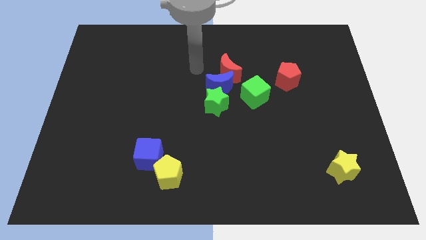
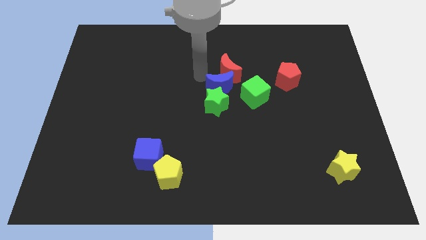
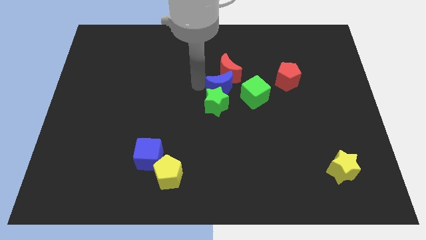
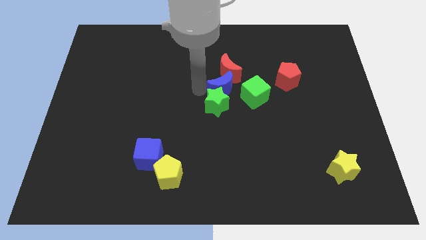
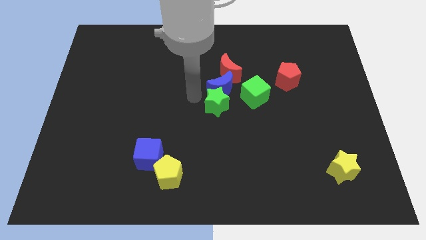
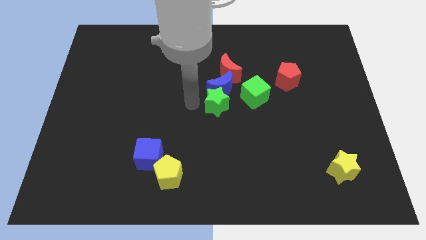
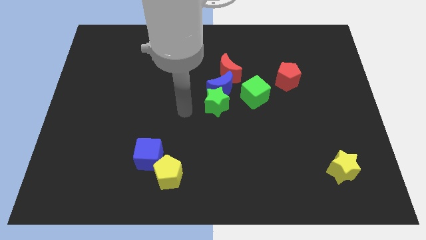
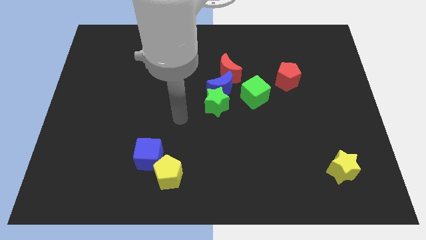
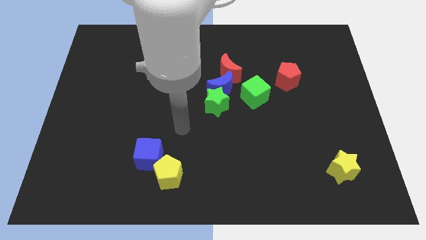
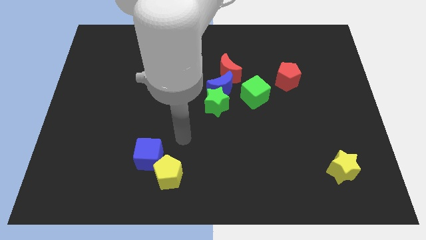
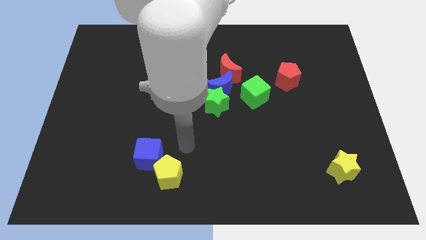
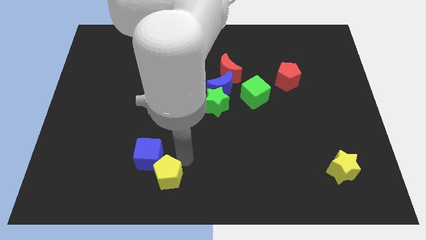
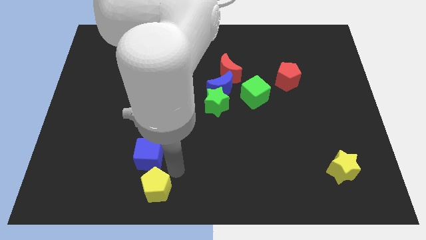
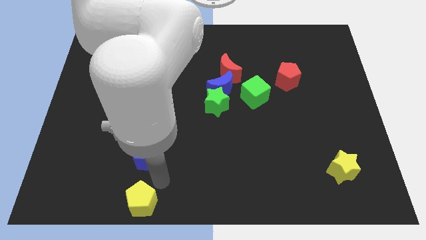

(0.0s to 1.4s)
separate the blue cube from the yellow pentagon

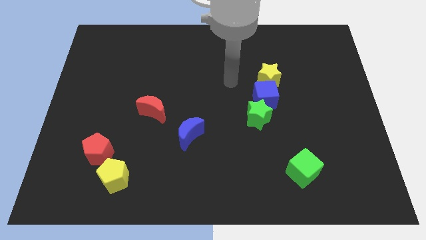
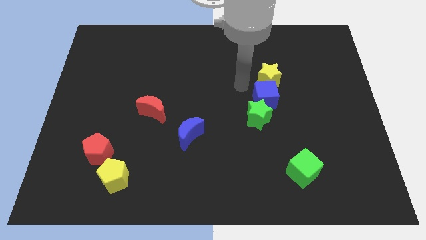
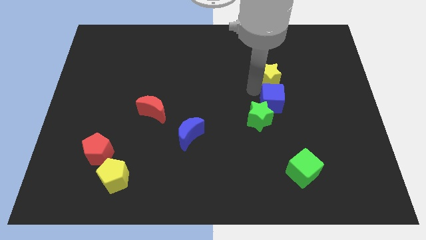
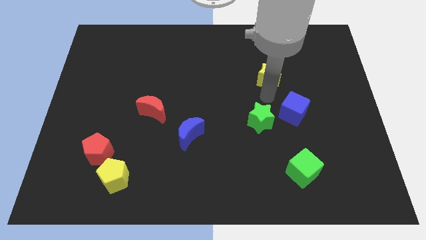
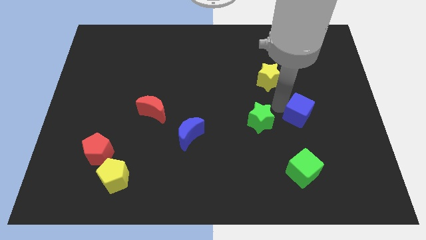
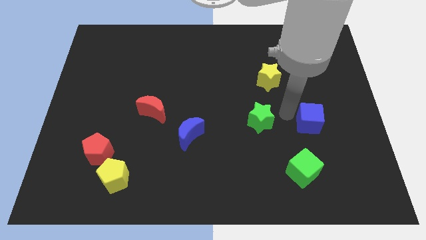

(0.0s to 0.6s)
pull the green star apart from the blue cube

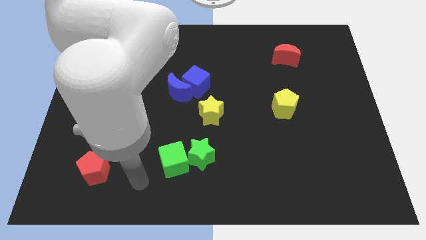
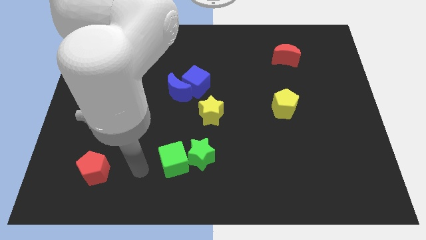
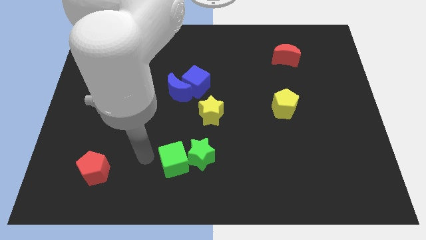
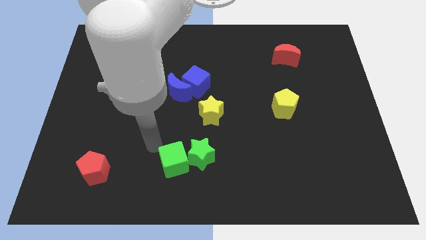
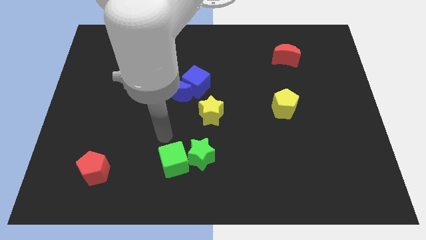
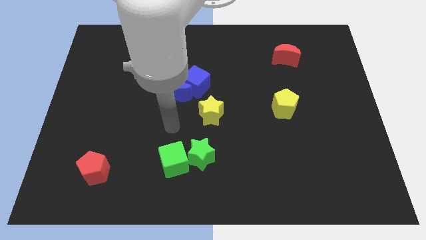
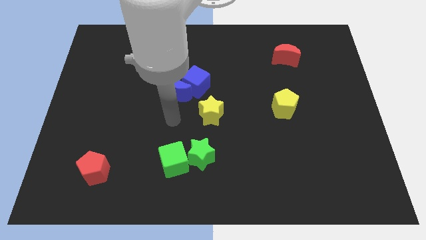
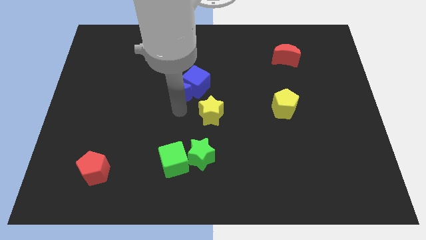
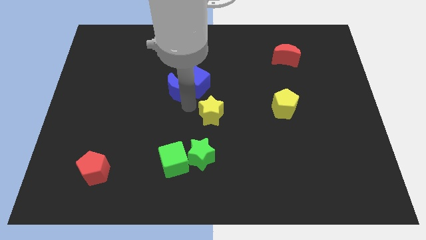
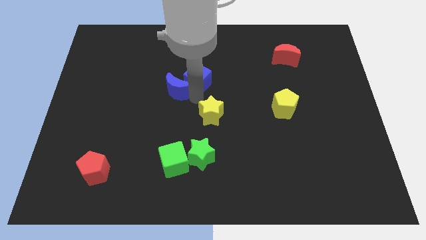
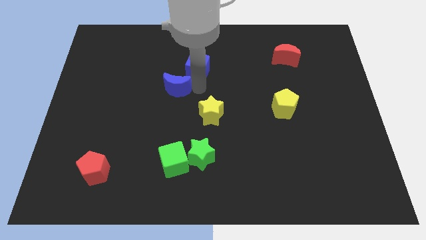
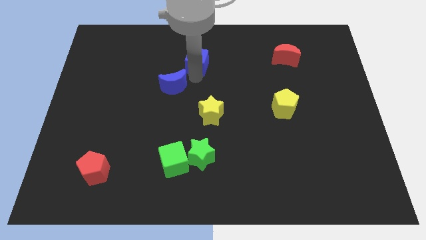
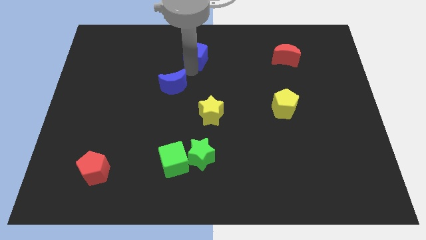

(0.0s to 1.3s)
move the blue moon away from the blue cube

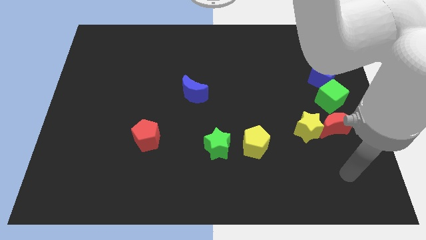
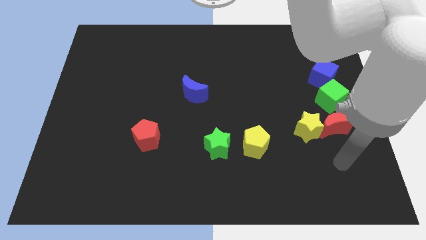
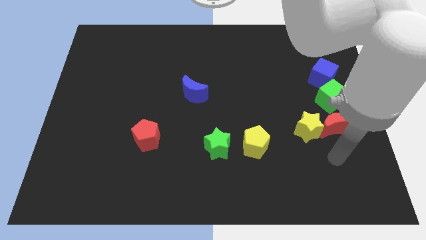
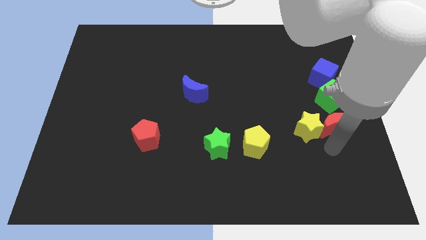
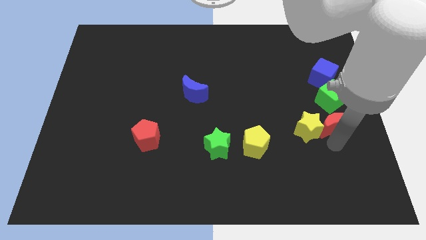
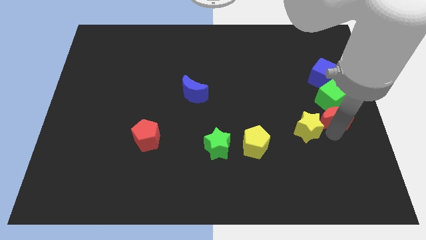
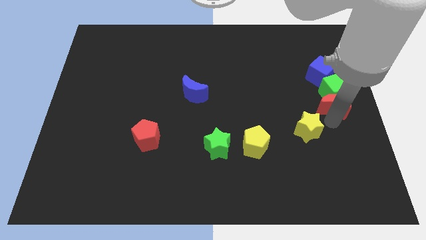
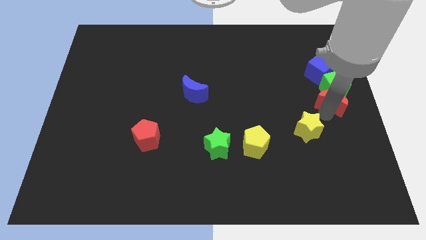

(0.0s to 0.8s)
pull the yellow star apart from the red moon

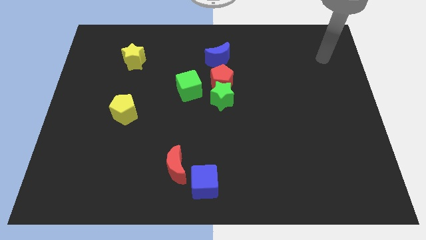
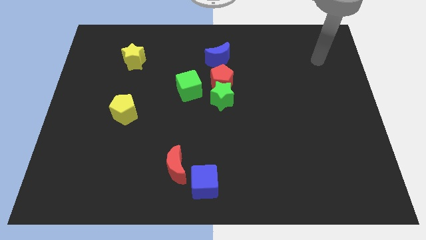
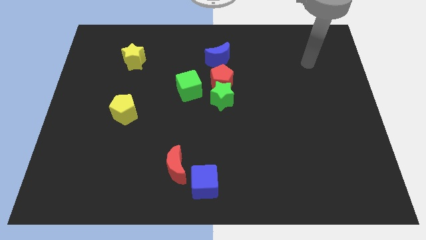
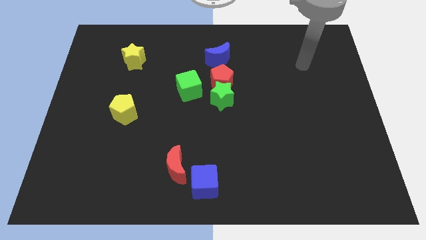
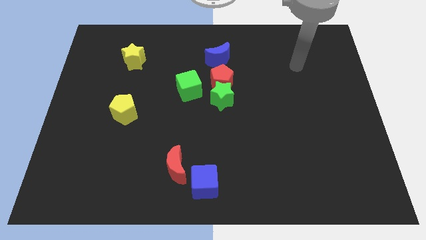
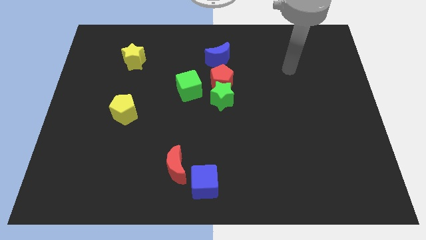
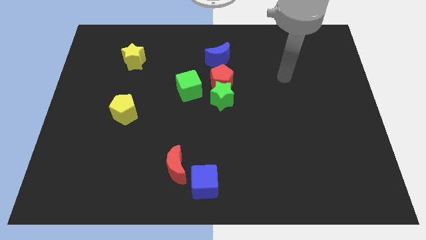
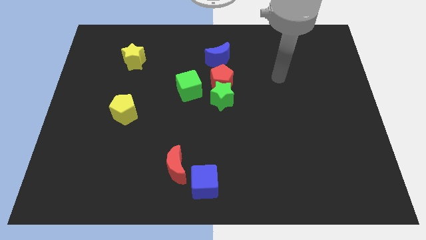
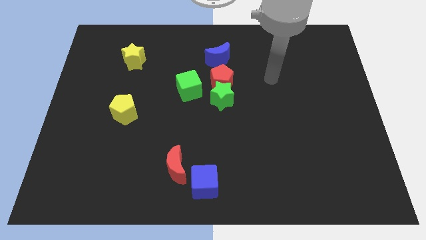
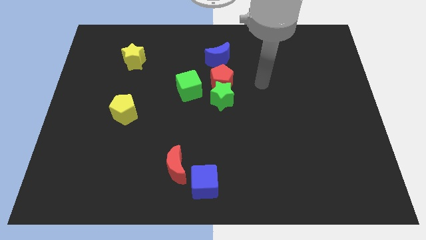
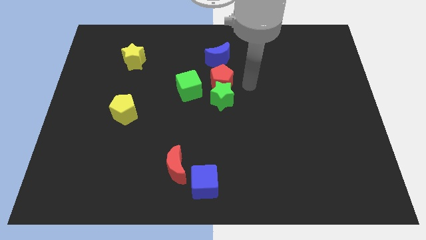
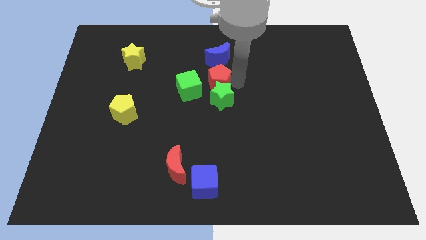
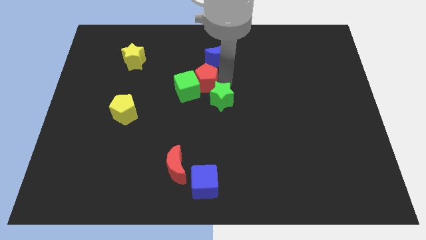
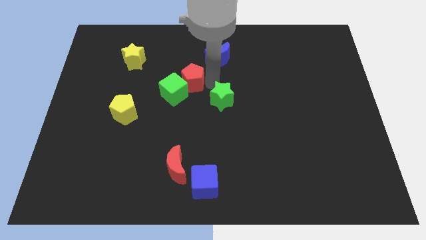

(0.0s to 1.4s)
pull the green star apart from the red pentagon and green cube

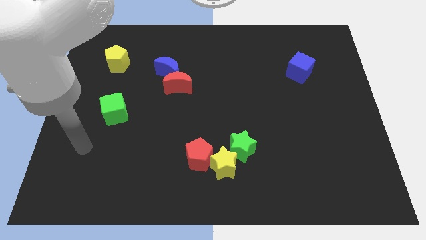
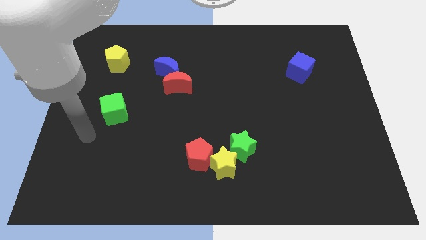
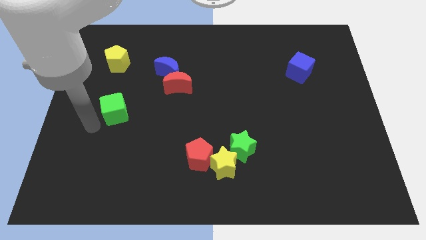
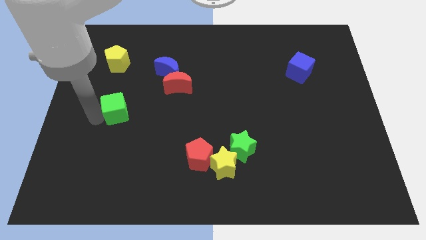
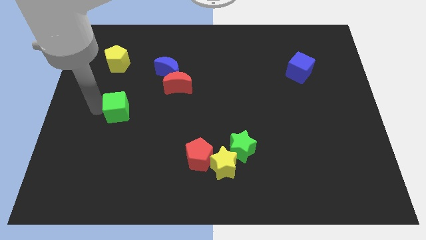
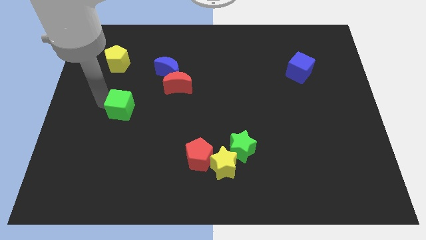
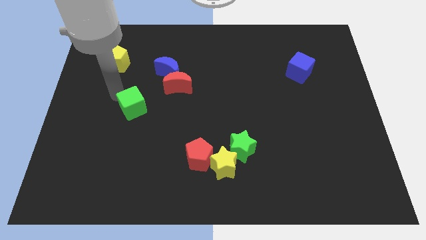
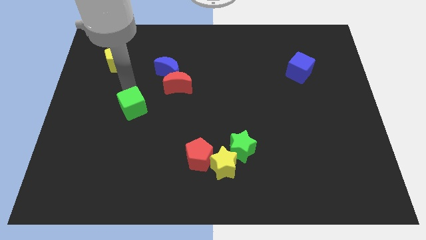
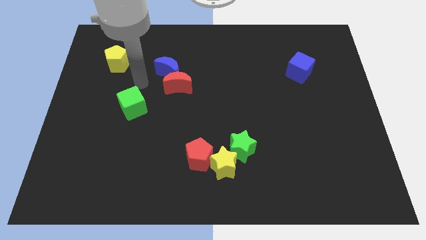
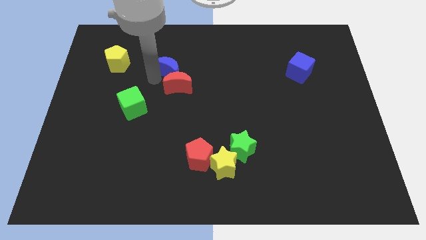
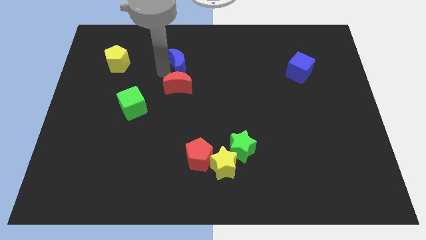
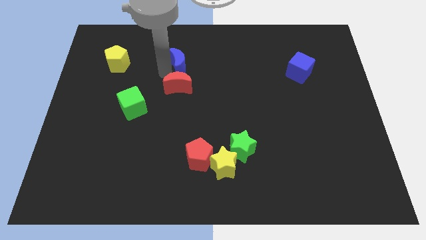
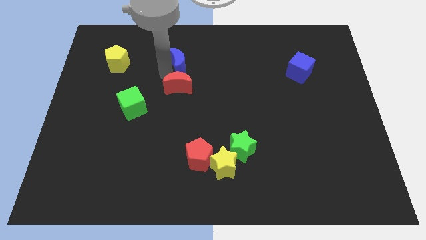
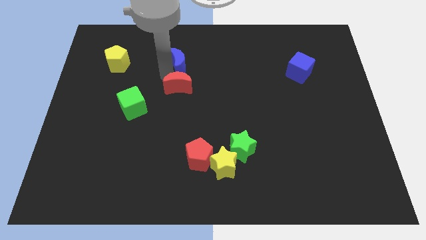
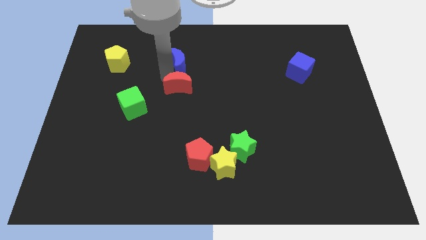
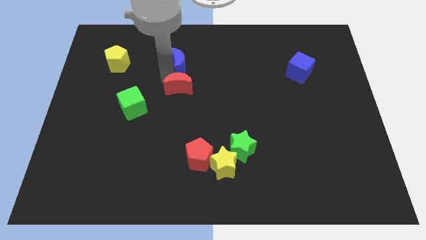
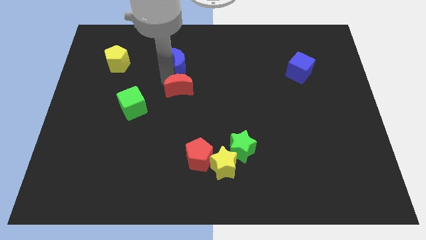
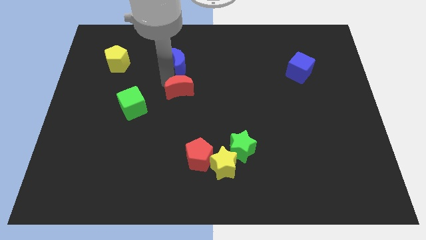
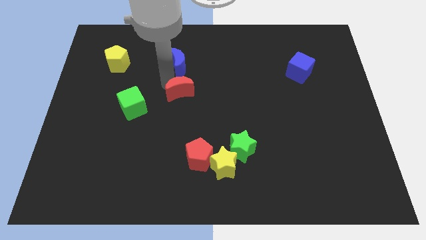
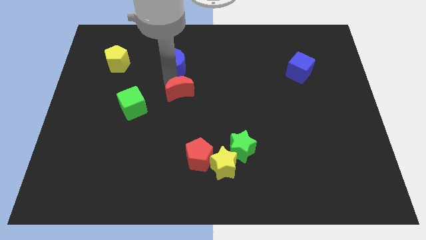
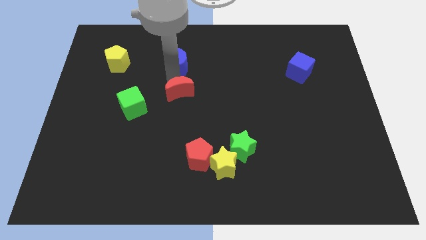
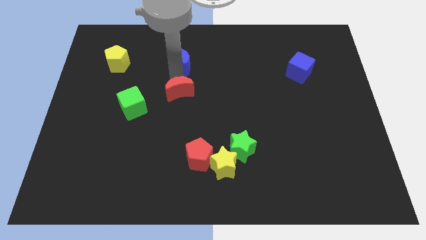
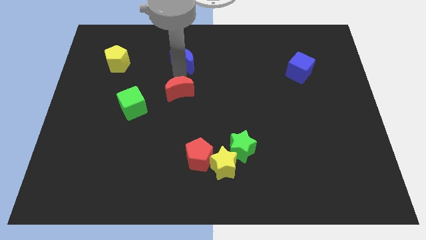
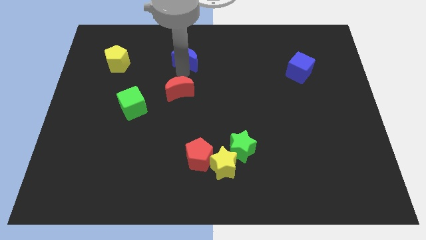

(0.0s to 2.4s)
separate the red moon from the blue moon

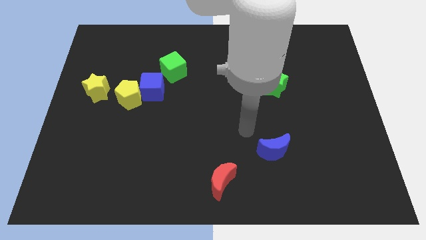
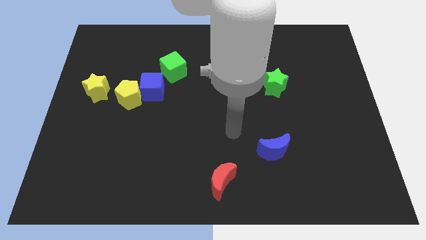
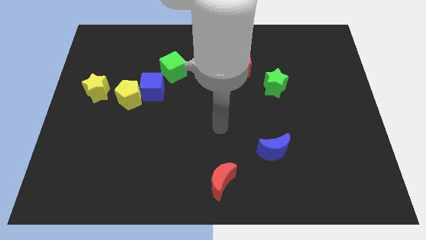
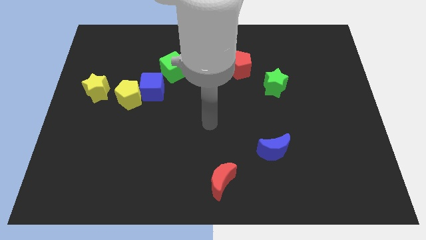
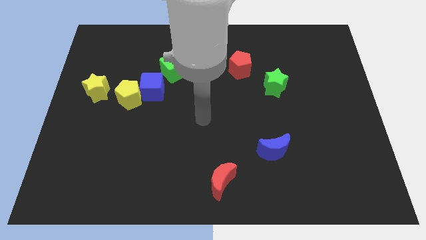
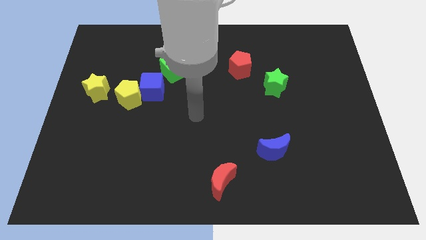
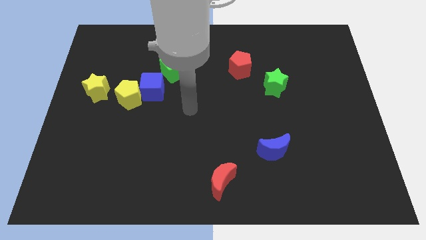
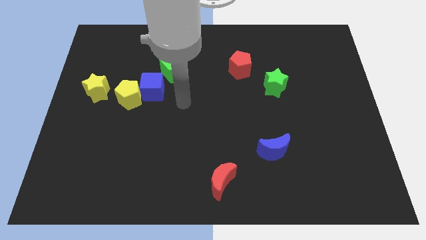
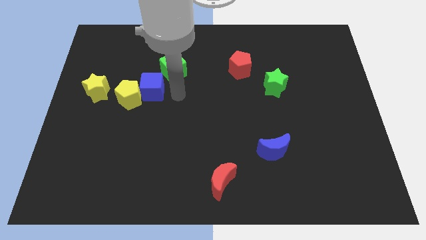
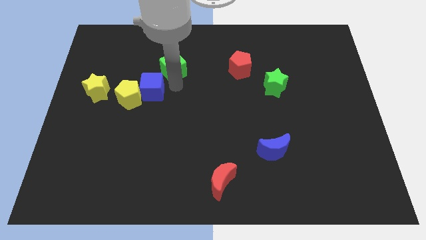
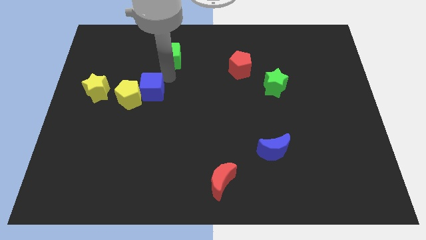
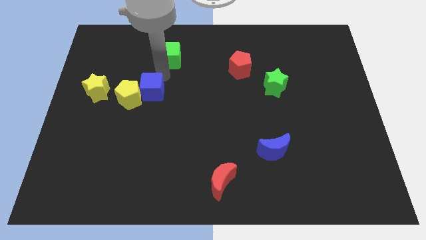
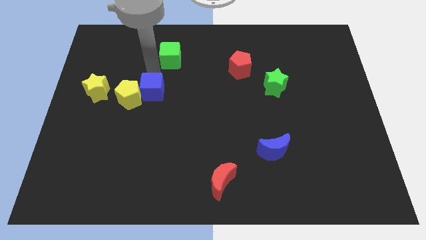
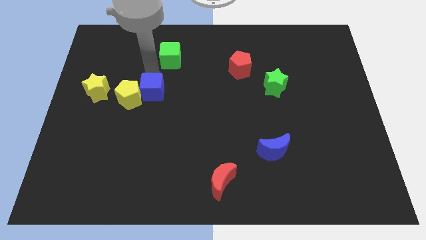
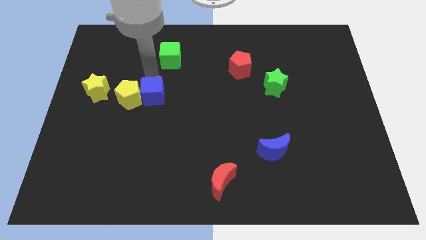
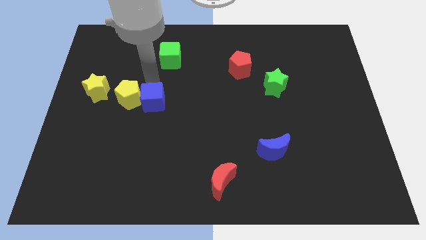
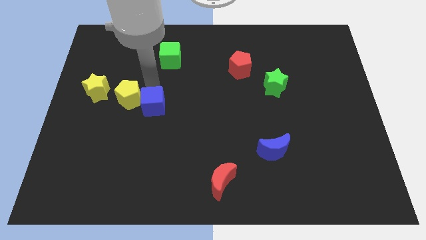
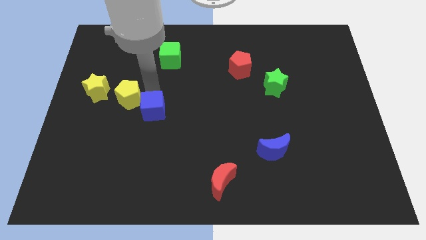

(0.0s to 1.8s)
pull the blue cube apart from the yellow pentagon and green cube
